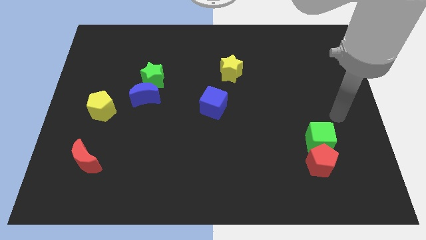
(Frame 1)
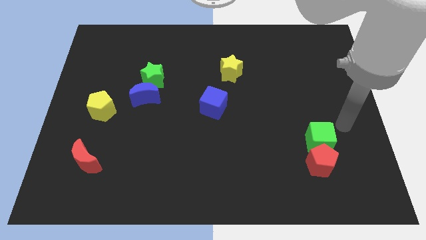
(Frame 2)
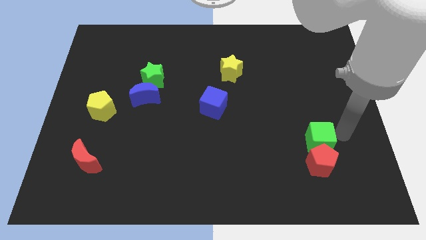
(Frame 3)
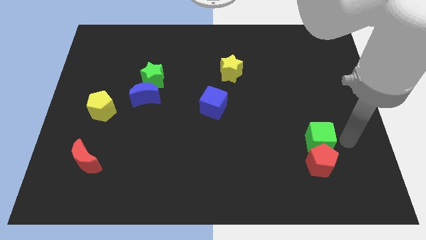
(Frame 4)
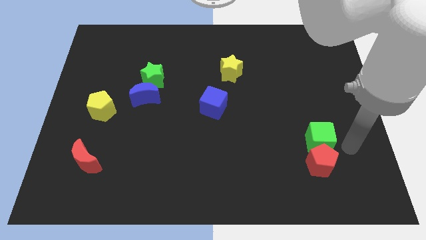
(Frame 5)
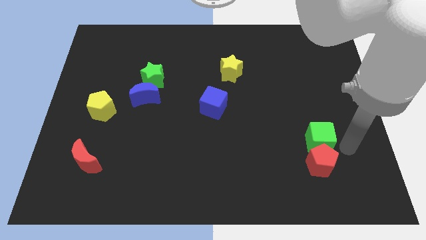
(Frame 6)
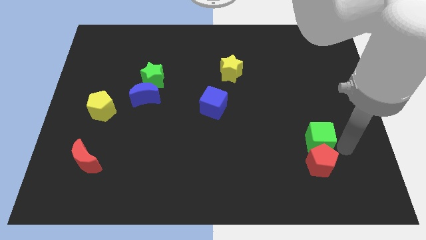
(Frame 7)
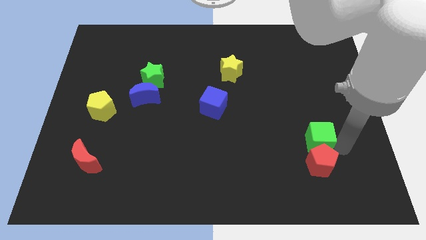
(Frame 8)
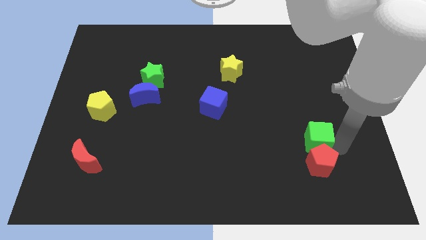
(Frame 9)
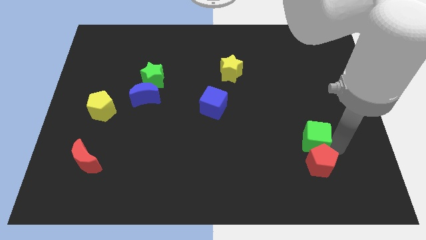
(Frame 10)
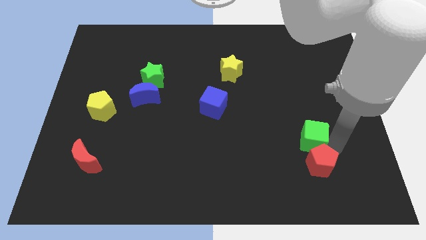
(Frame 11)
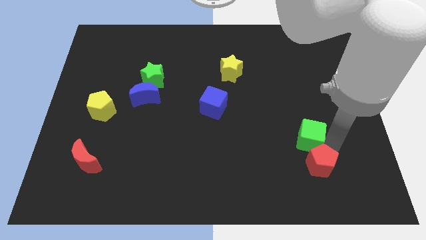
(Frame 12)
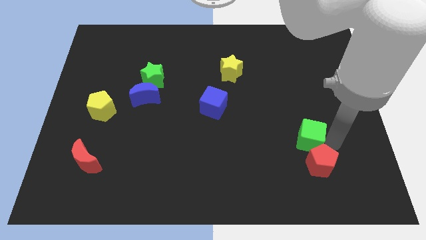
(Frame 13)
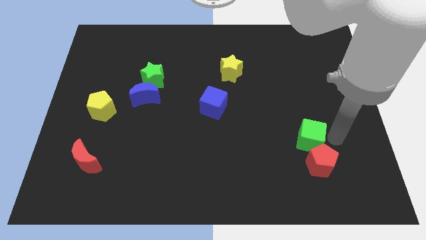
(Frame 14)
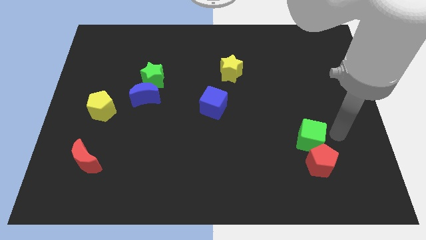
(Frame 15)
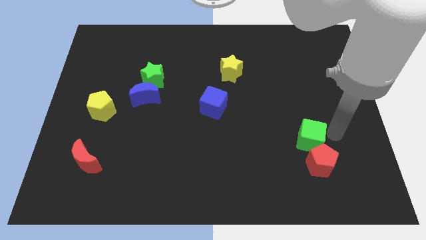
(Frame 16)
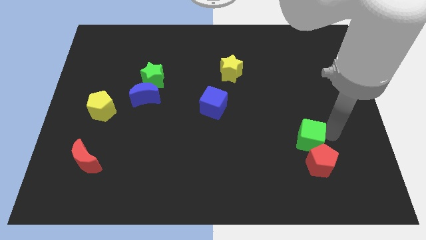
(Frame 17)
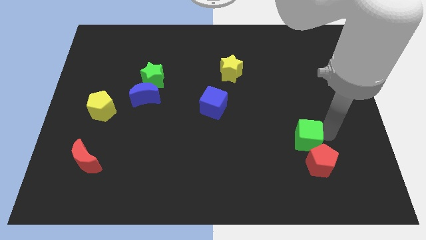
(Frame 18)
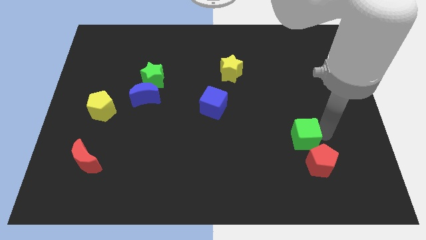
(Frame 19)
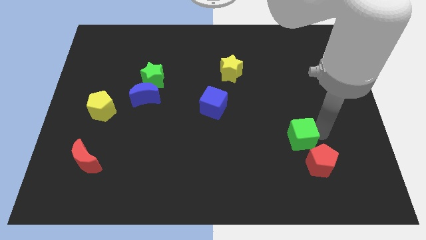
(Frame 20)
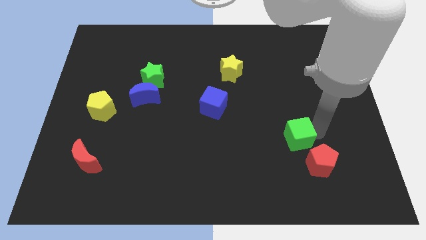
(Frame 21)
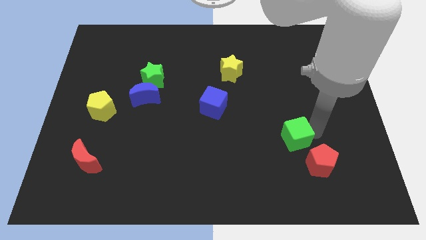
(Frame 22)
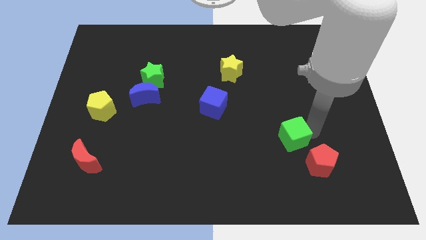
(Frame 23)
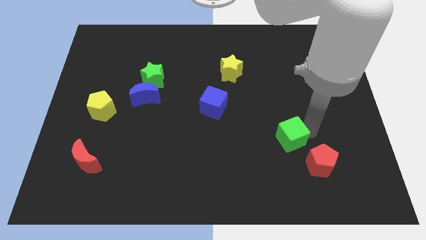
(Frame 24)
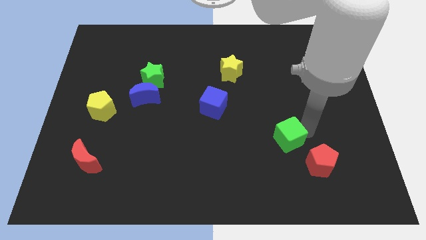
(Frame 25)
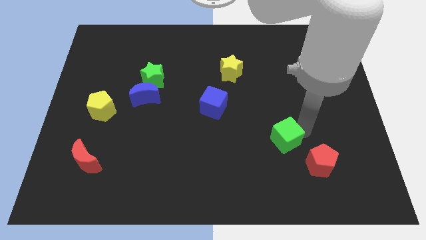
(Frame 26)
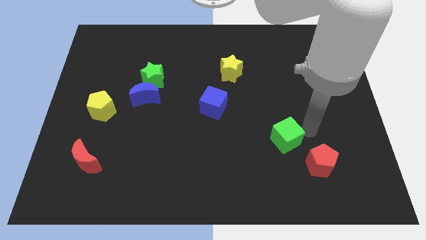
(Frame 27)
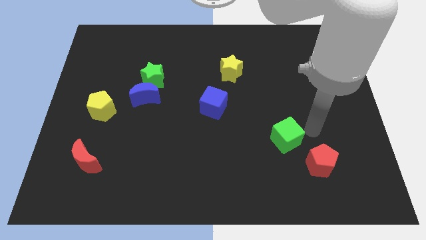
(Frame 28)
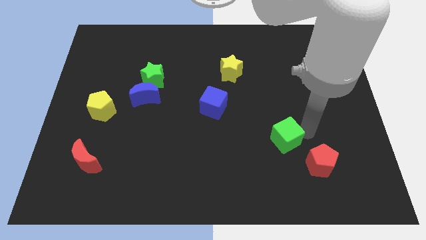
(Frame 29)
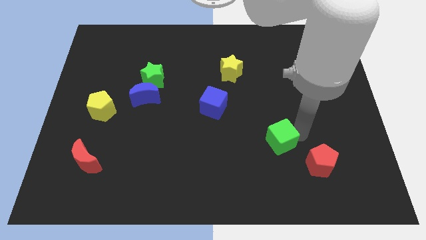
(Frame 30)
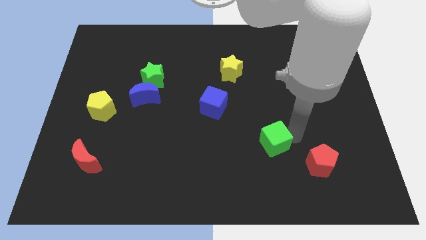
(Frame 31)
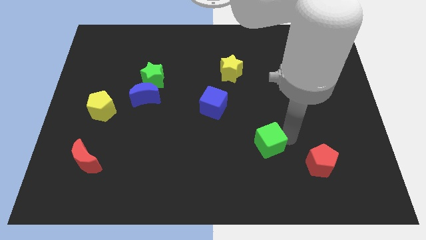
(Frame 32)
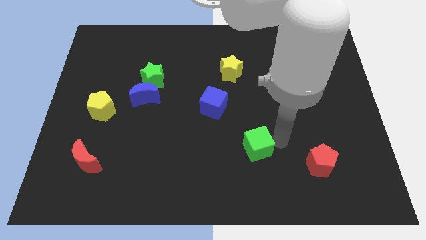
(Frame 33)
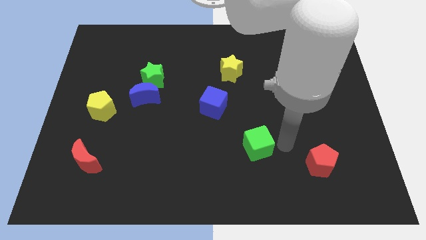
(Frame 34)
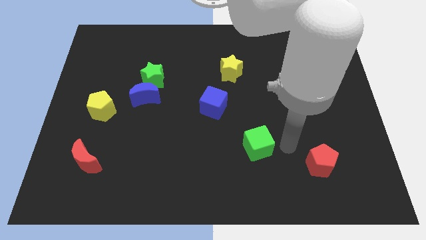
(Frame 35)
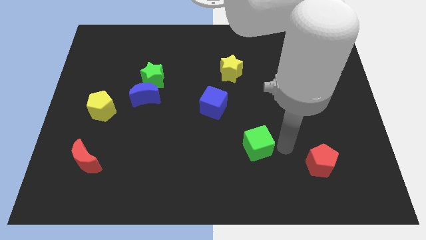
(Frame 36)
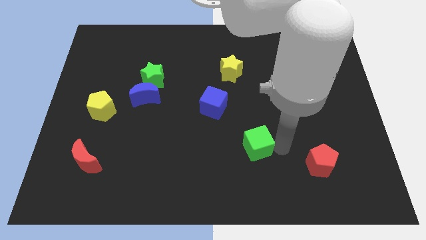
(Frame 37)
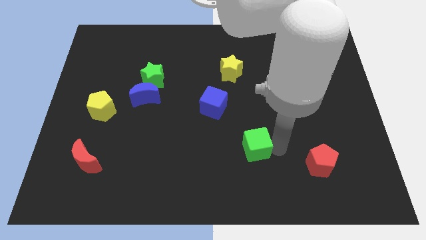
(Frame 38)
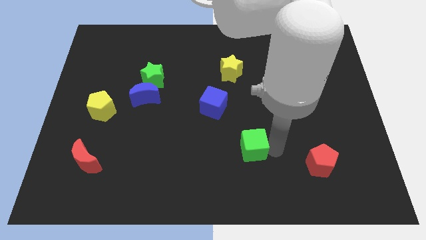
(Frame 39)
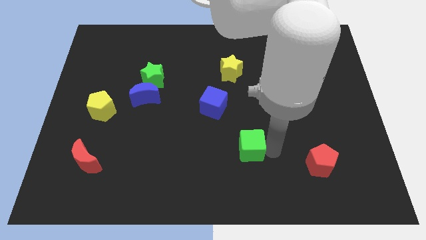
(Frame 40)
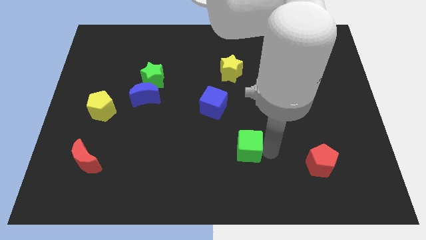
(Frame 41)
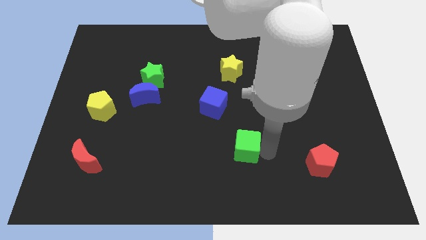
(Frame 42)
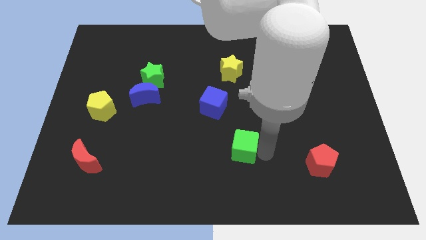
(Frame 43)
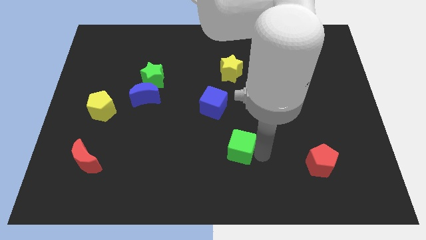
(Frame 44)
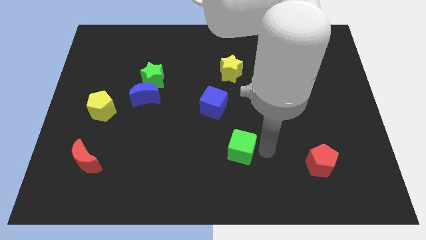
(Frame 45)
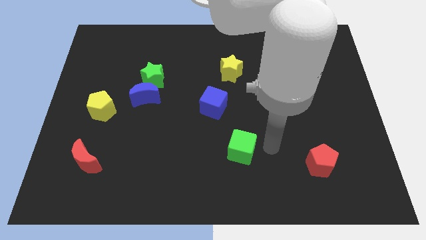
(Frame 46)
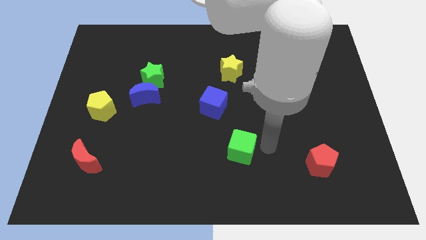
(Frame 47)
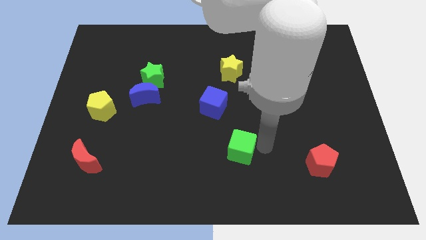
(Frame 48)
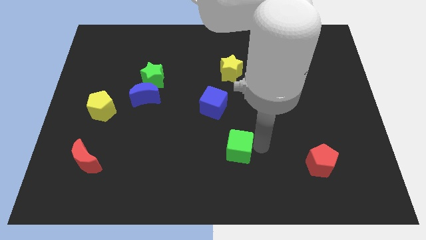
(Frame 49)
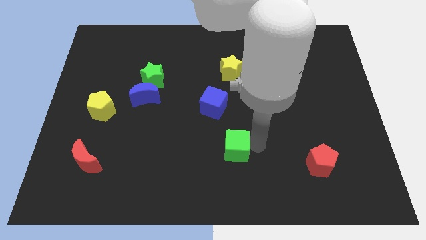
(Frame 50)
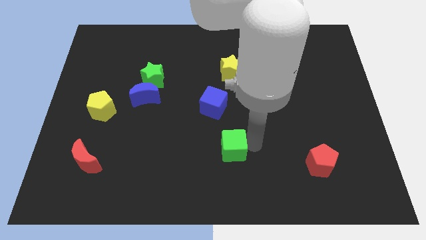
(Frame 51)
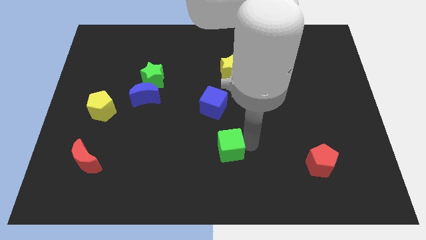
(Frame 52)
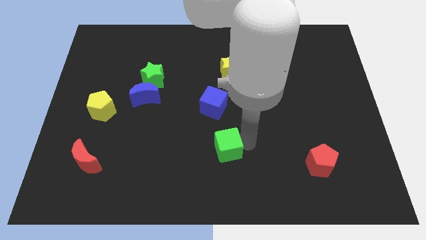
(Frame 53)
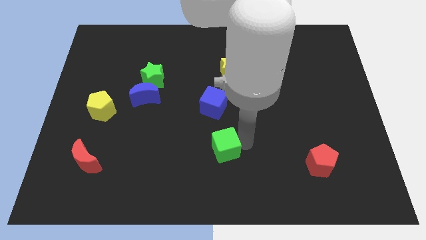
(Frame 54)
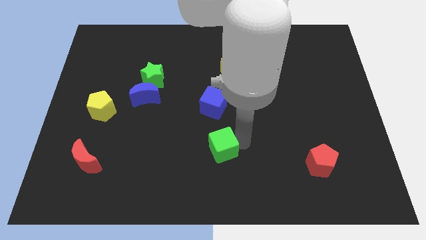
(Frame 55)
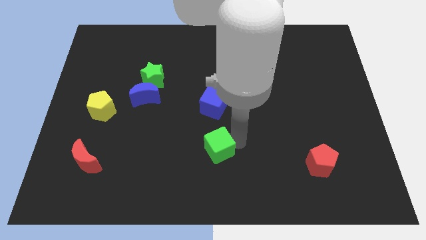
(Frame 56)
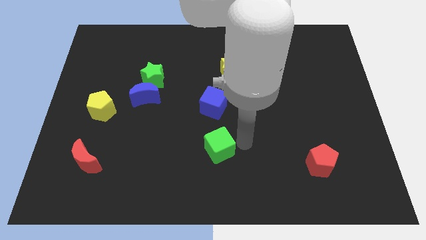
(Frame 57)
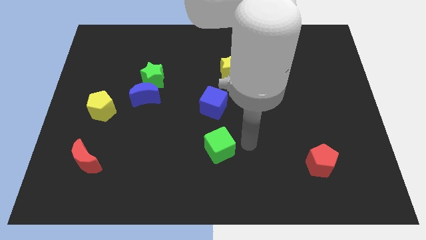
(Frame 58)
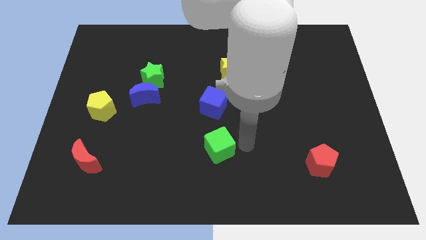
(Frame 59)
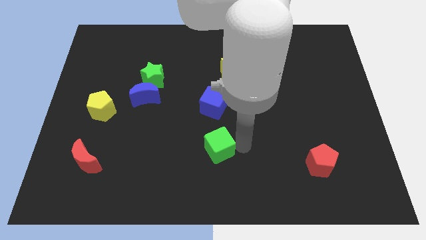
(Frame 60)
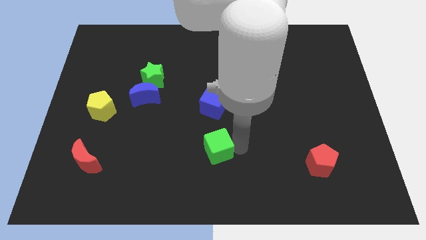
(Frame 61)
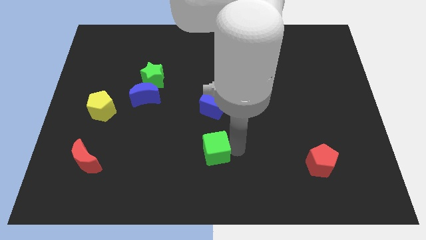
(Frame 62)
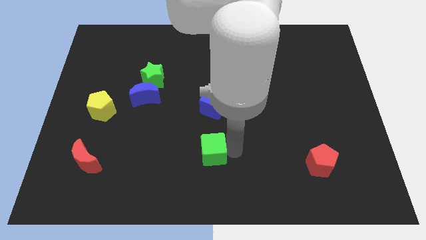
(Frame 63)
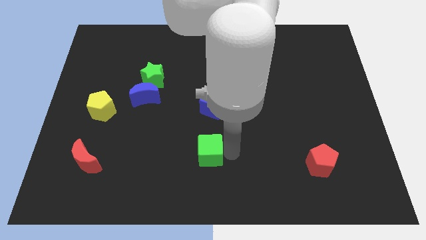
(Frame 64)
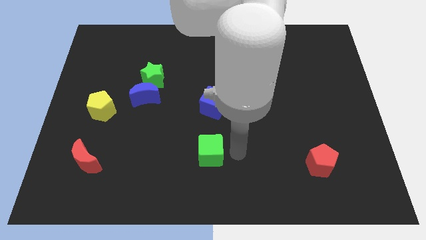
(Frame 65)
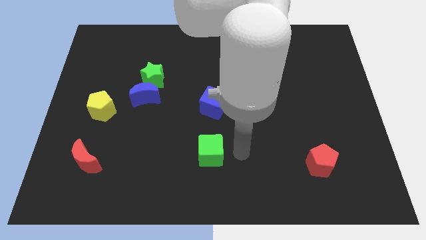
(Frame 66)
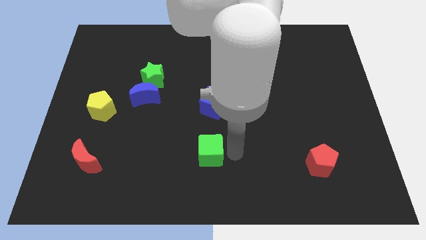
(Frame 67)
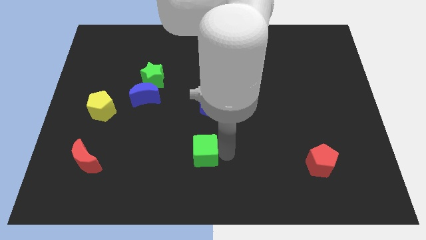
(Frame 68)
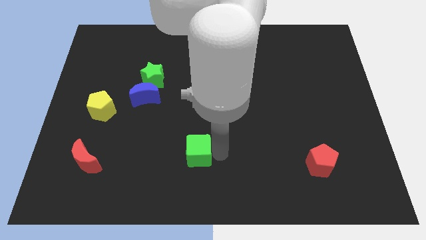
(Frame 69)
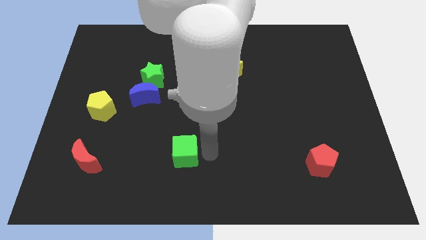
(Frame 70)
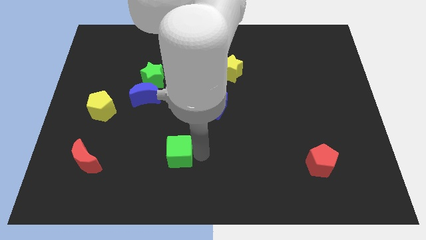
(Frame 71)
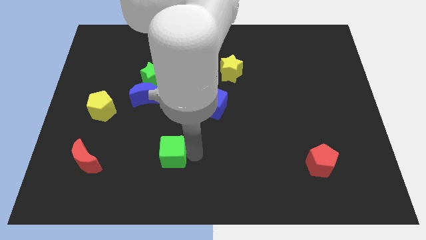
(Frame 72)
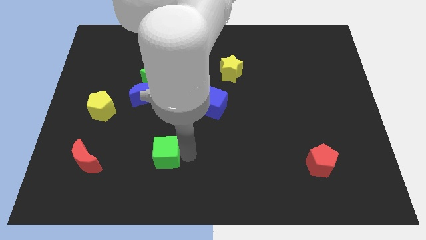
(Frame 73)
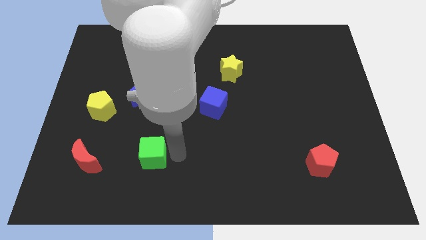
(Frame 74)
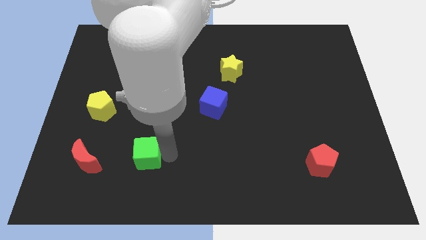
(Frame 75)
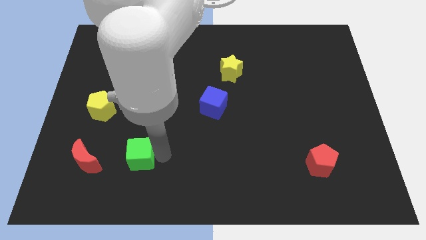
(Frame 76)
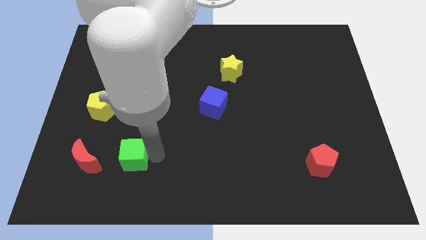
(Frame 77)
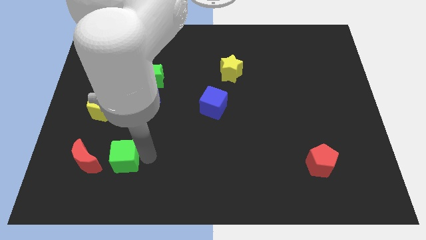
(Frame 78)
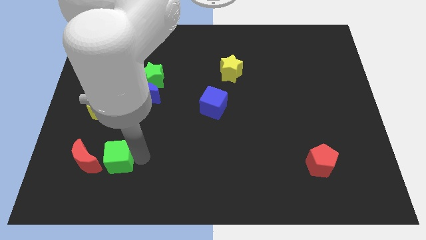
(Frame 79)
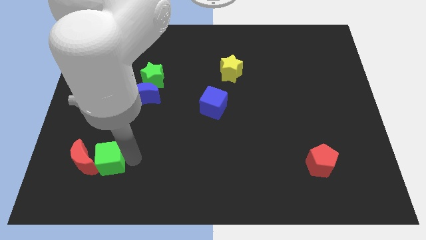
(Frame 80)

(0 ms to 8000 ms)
move the green cube to the red moon

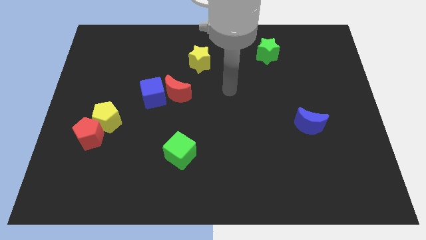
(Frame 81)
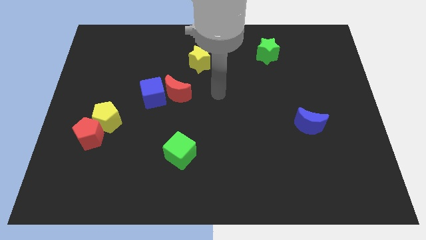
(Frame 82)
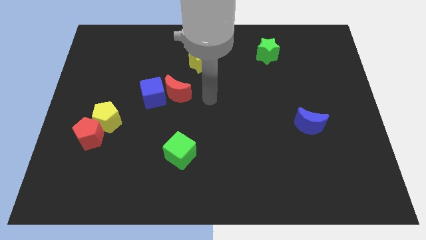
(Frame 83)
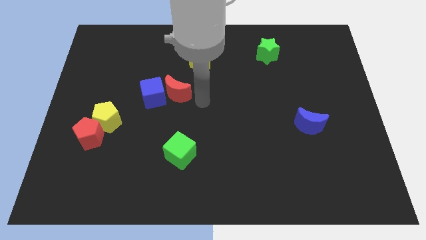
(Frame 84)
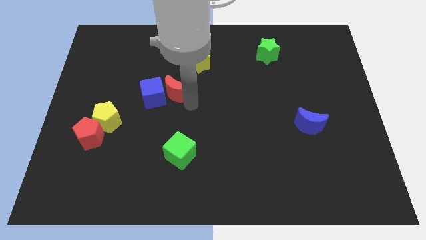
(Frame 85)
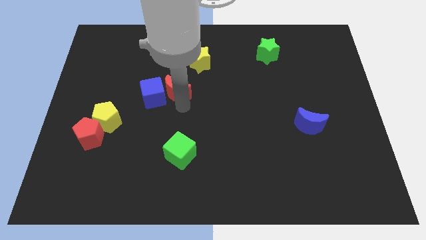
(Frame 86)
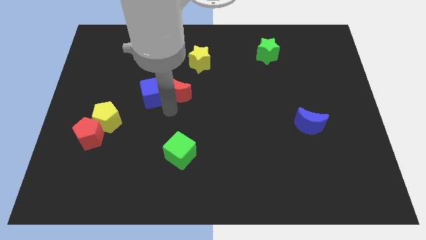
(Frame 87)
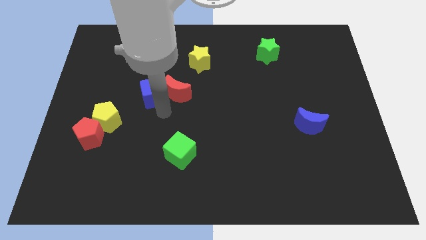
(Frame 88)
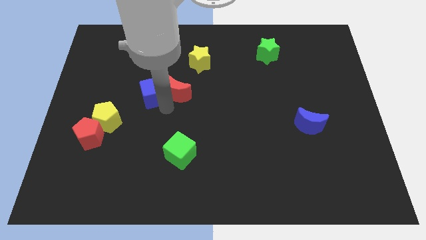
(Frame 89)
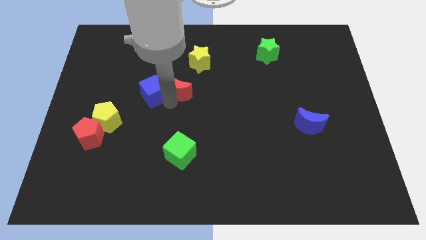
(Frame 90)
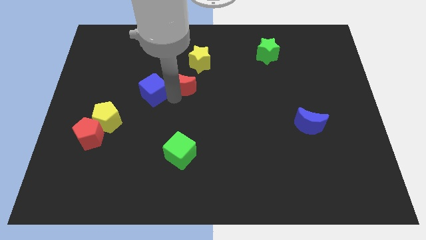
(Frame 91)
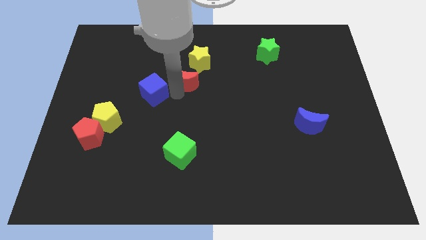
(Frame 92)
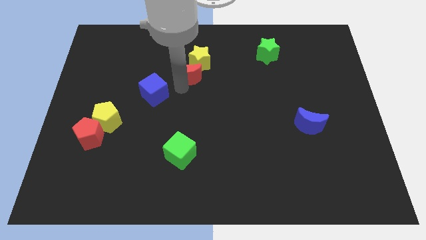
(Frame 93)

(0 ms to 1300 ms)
slide the red moon close to the yellow star
